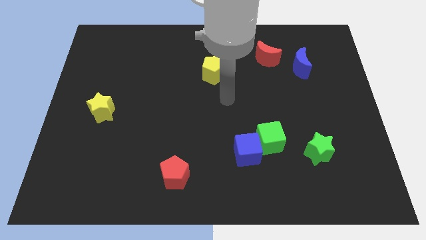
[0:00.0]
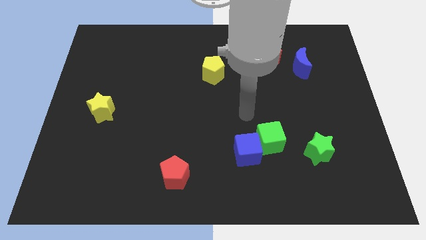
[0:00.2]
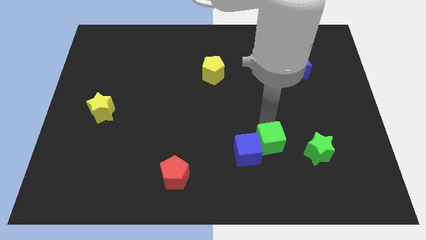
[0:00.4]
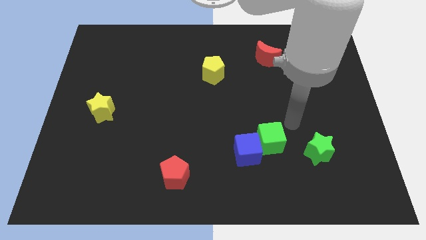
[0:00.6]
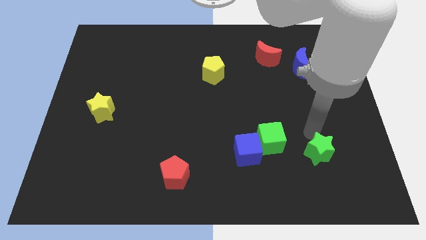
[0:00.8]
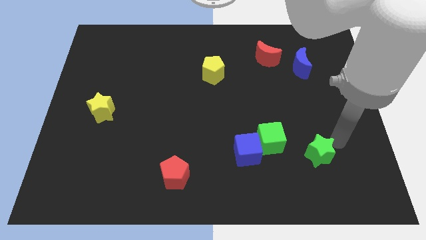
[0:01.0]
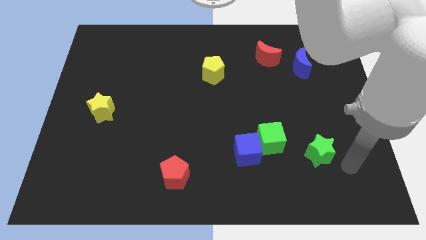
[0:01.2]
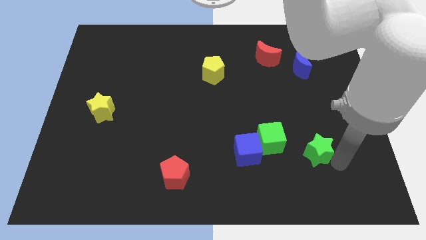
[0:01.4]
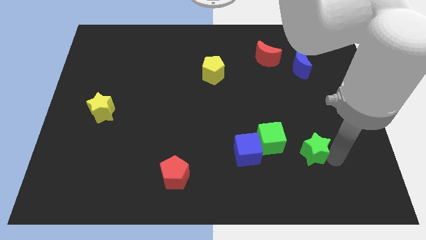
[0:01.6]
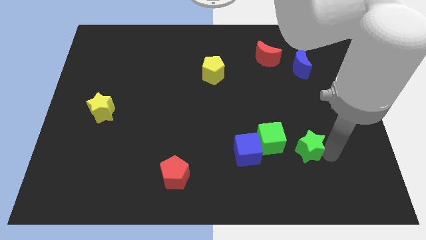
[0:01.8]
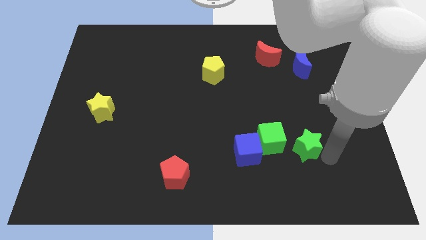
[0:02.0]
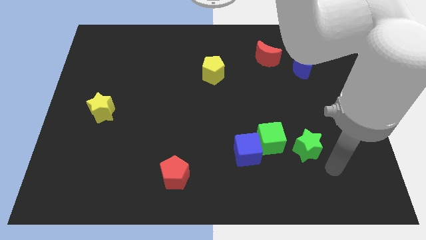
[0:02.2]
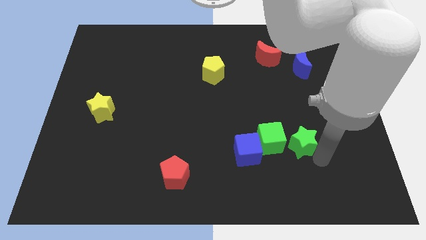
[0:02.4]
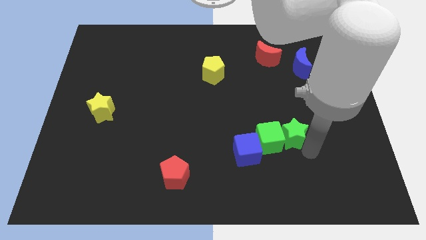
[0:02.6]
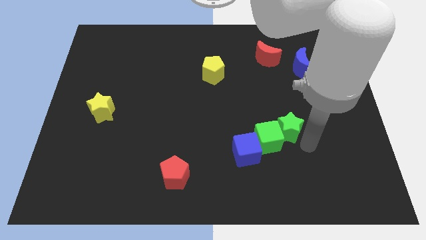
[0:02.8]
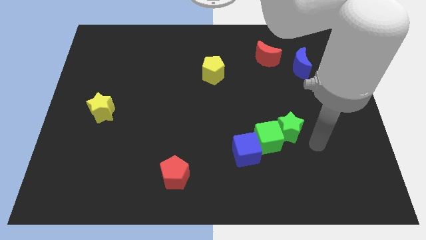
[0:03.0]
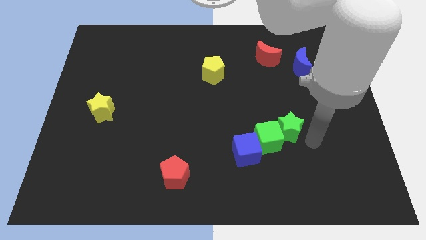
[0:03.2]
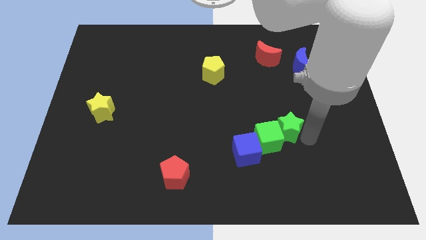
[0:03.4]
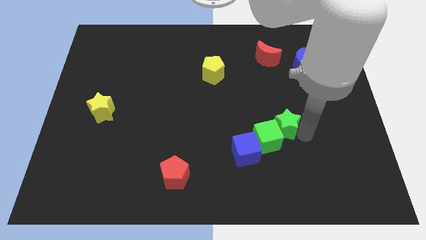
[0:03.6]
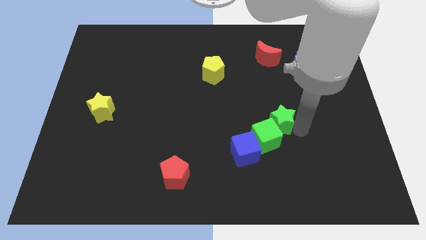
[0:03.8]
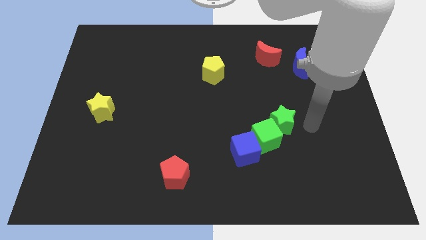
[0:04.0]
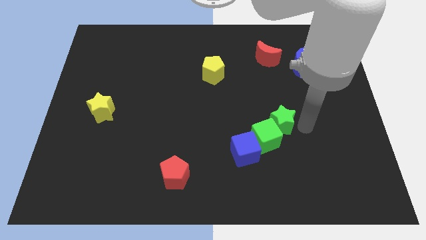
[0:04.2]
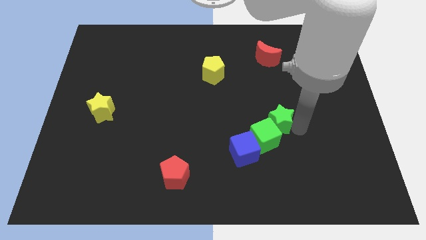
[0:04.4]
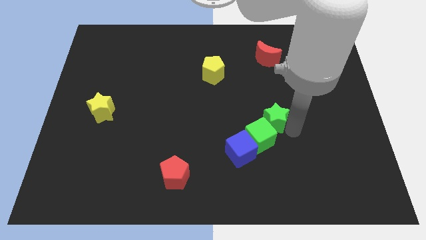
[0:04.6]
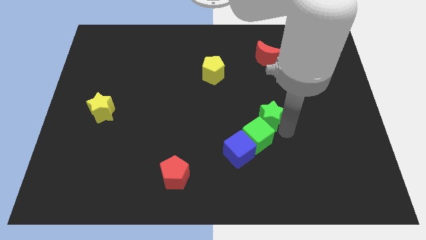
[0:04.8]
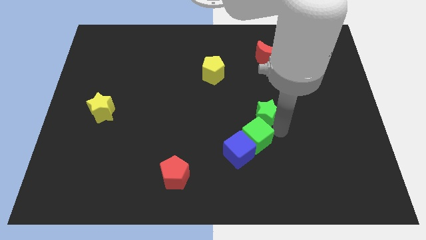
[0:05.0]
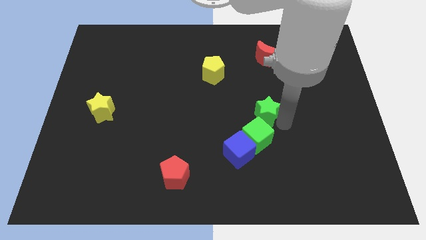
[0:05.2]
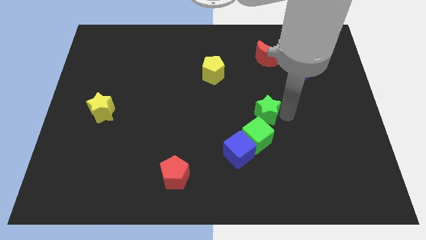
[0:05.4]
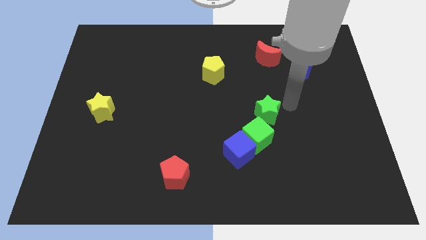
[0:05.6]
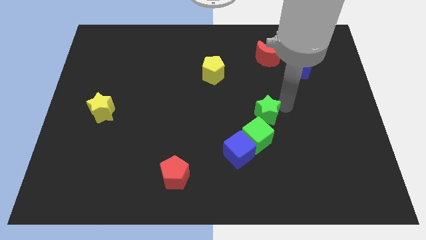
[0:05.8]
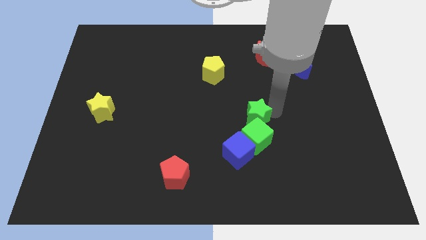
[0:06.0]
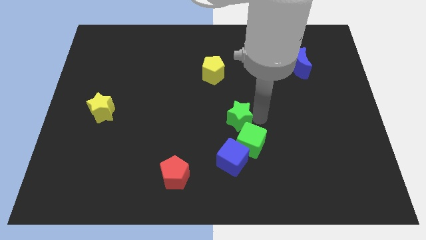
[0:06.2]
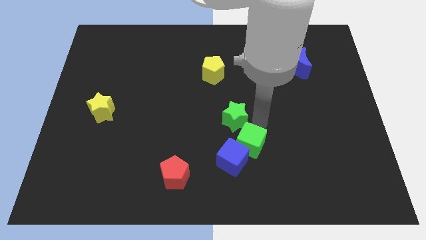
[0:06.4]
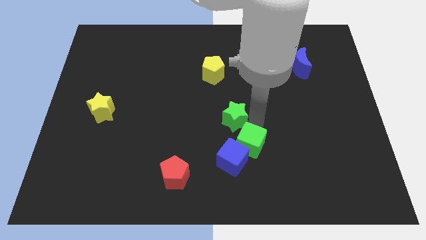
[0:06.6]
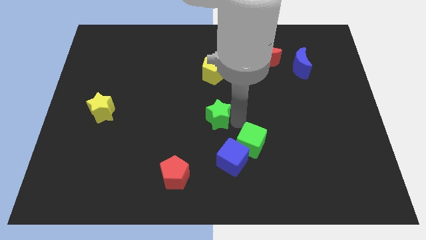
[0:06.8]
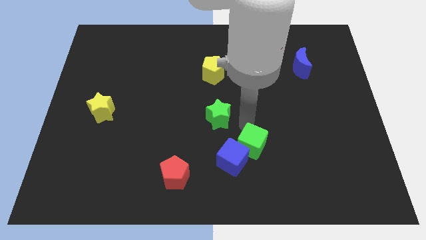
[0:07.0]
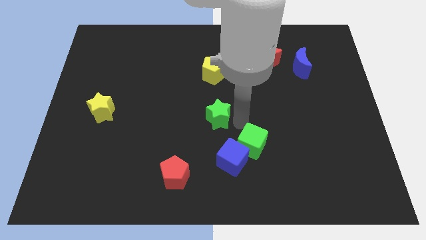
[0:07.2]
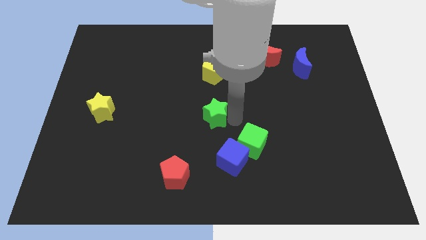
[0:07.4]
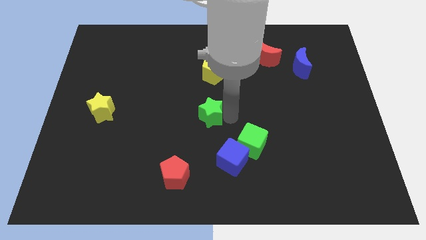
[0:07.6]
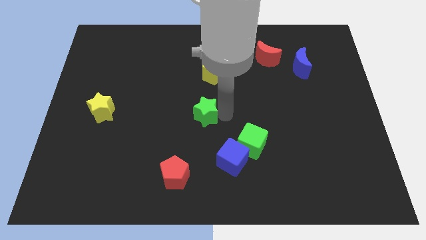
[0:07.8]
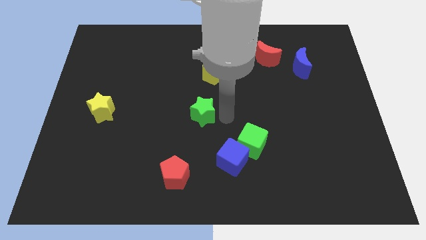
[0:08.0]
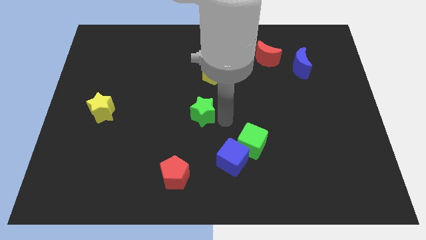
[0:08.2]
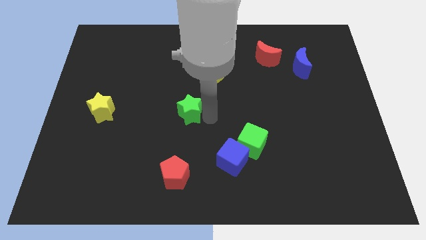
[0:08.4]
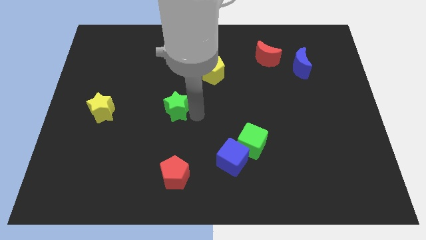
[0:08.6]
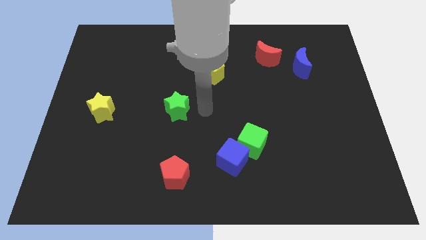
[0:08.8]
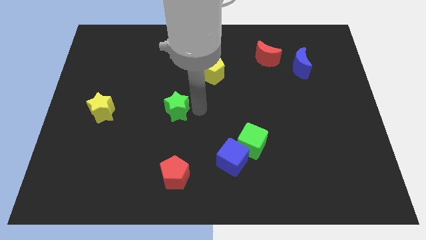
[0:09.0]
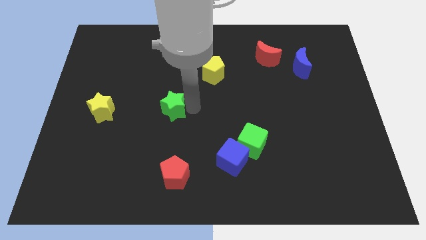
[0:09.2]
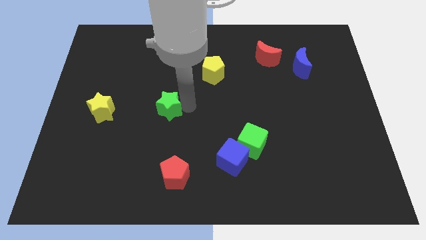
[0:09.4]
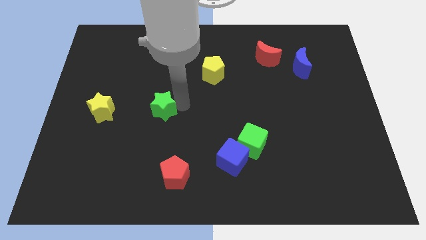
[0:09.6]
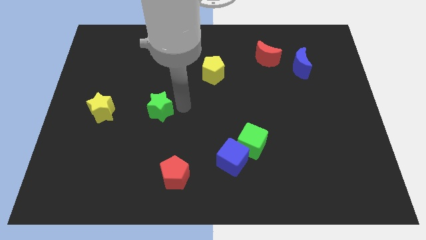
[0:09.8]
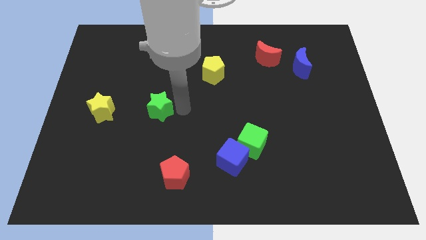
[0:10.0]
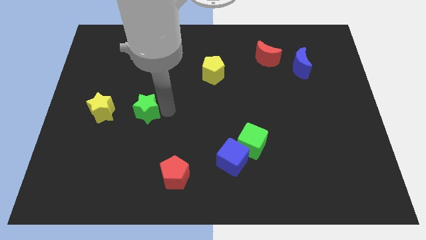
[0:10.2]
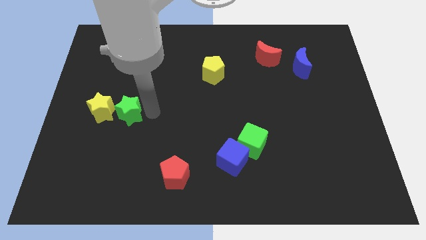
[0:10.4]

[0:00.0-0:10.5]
slide the green star towards the yellow star

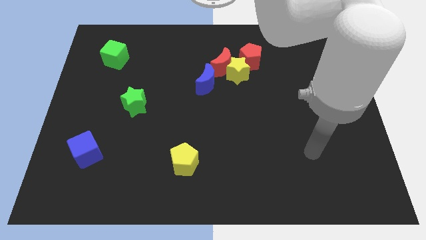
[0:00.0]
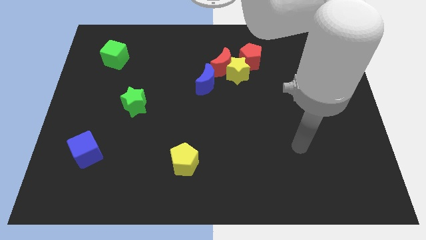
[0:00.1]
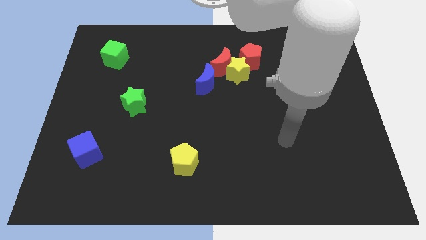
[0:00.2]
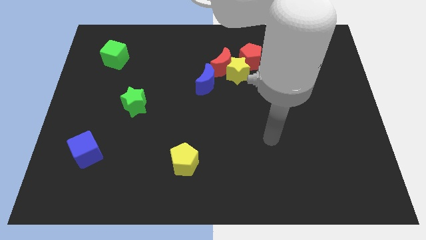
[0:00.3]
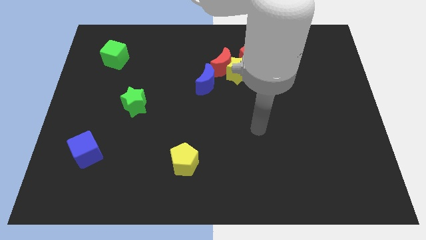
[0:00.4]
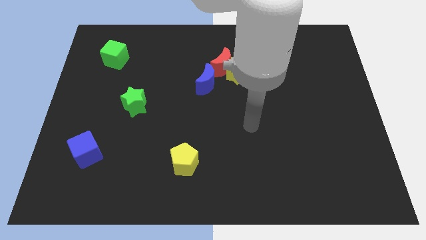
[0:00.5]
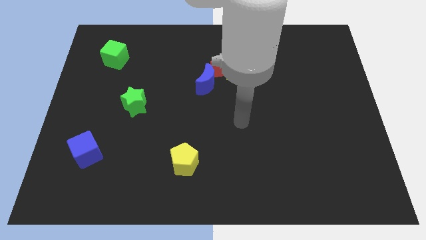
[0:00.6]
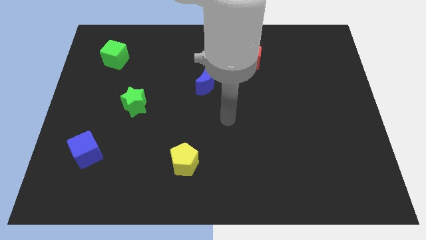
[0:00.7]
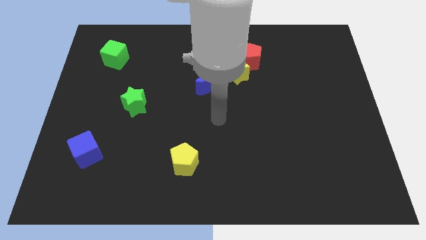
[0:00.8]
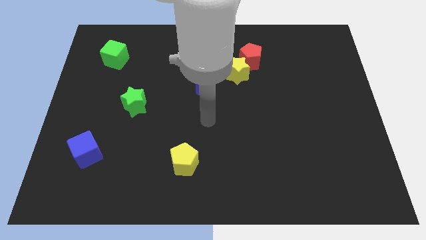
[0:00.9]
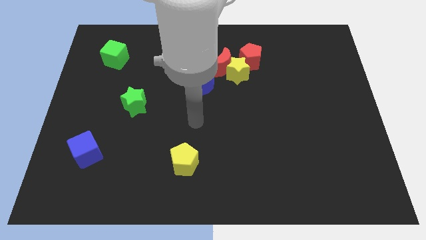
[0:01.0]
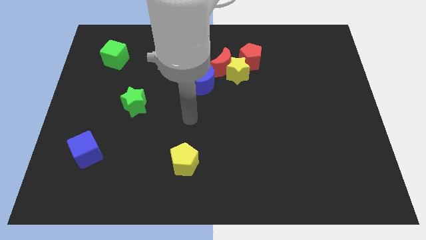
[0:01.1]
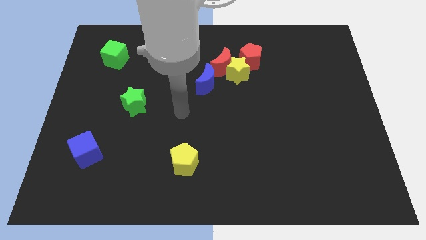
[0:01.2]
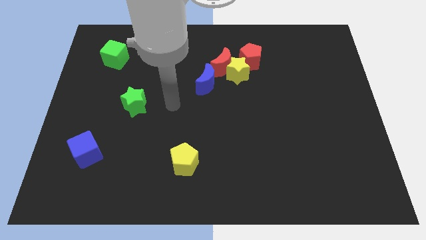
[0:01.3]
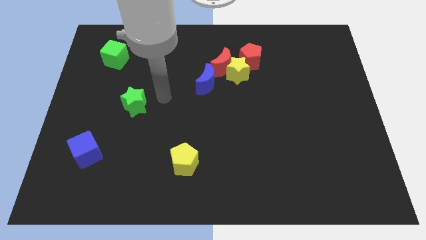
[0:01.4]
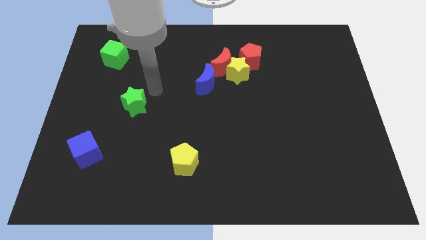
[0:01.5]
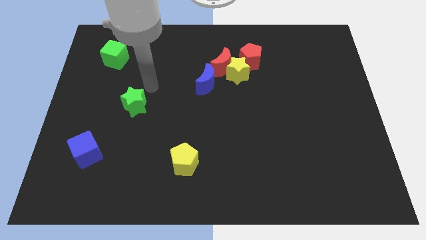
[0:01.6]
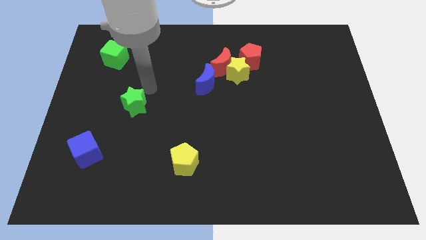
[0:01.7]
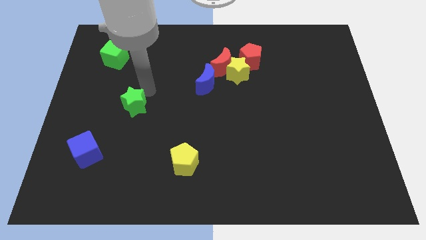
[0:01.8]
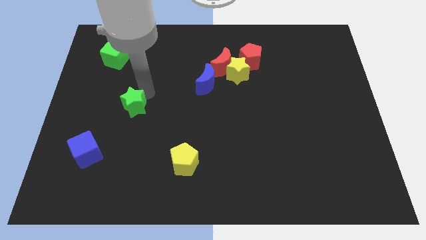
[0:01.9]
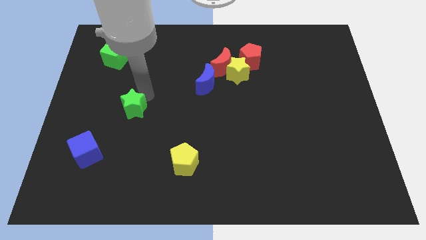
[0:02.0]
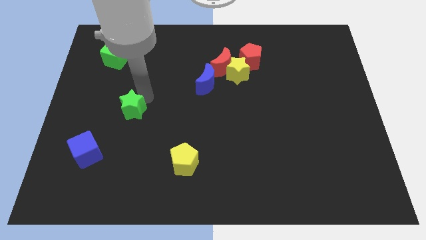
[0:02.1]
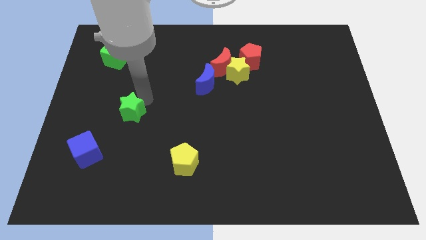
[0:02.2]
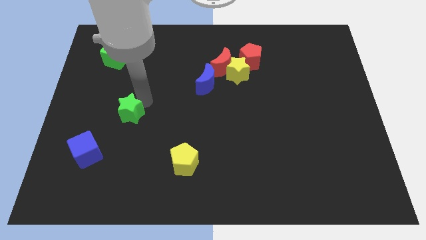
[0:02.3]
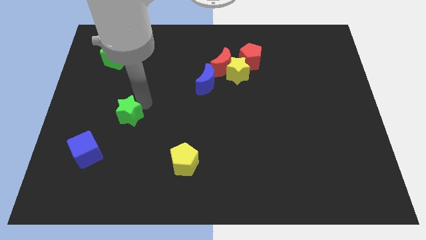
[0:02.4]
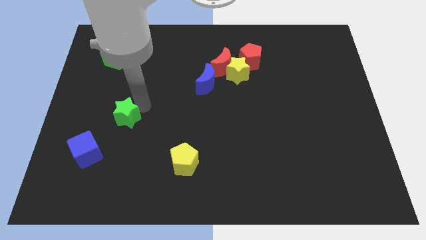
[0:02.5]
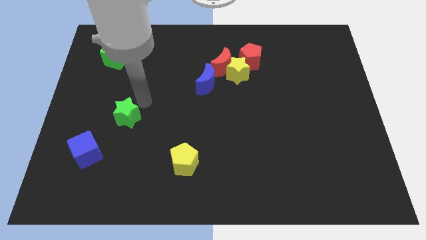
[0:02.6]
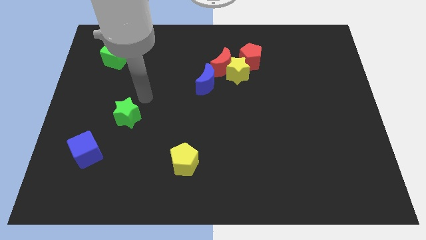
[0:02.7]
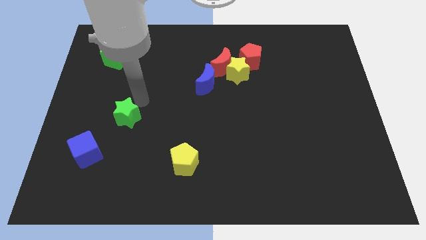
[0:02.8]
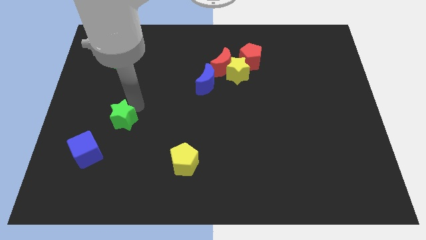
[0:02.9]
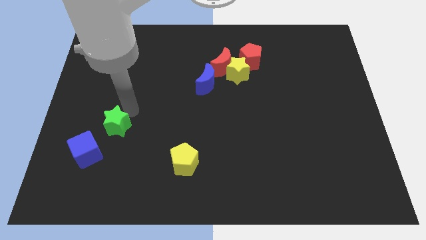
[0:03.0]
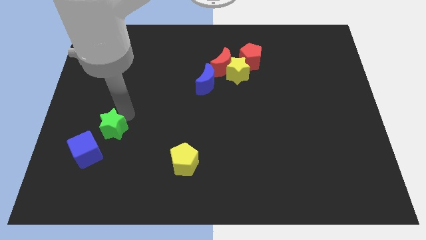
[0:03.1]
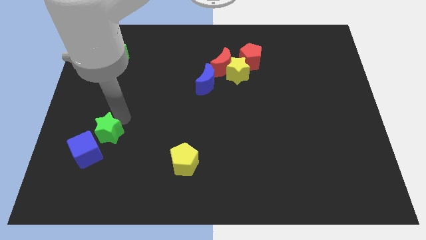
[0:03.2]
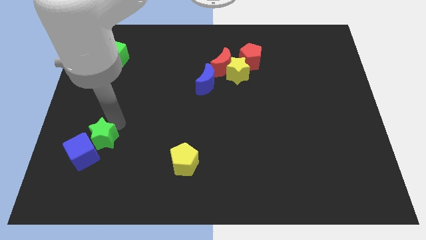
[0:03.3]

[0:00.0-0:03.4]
slide the green star next to the blue cube
